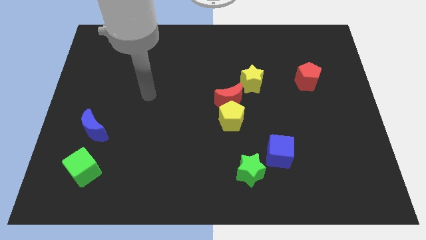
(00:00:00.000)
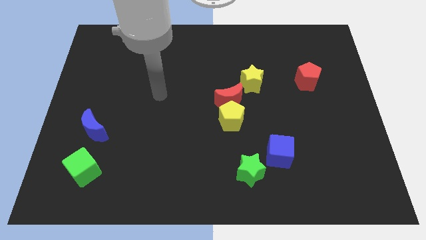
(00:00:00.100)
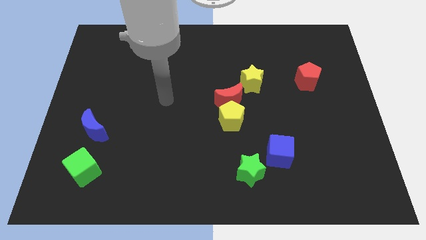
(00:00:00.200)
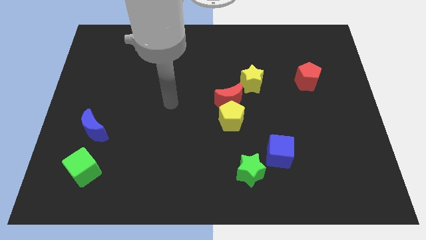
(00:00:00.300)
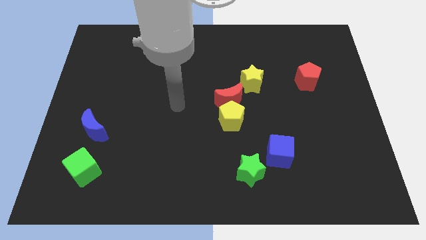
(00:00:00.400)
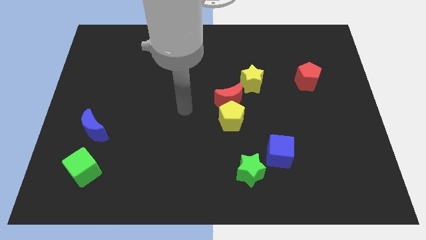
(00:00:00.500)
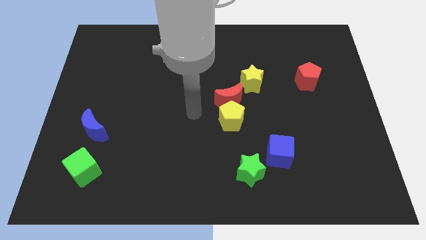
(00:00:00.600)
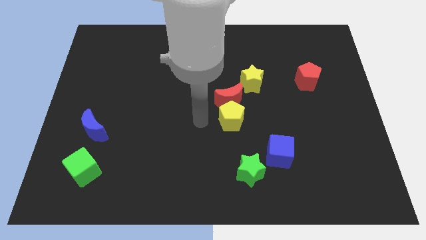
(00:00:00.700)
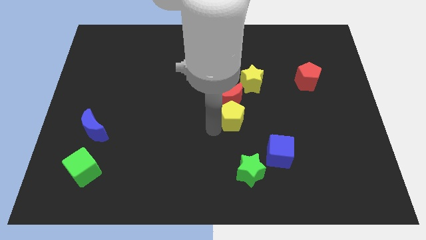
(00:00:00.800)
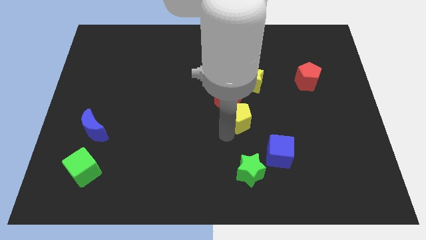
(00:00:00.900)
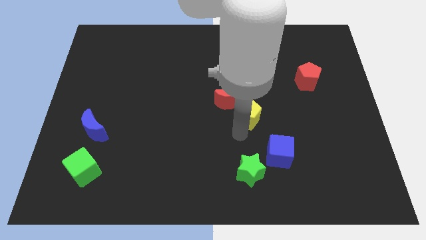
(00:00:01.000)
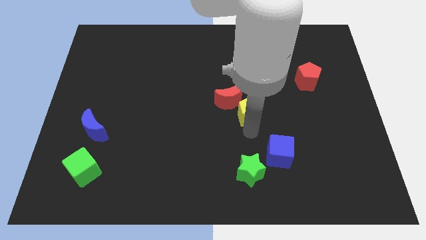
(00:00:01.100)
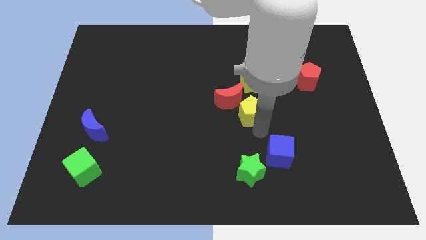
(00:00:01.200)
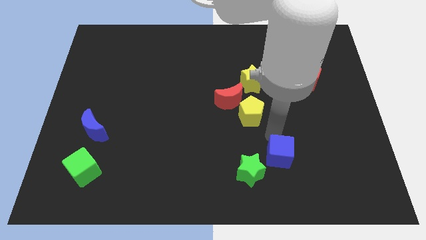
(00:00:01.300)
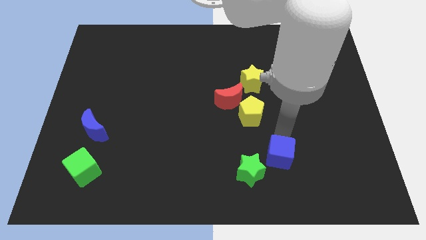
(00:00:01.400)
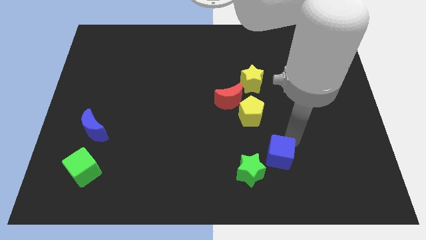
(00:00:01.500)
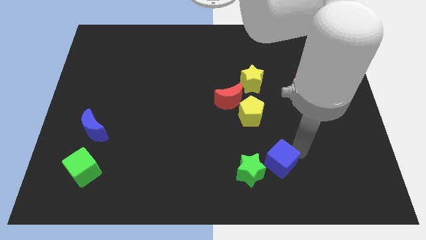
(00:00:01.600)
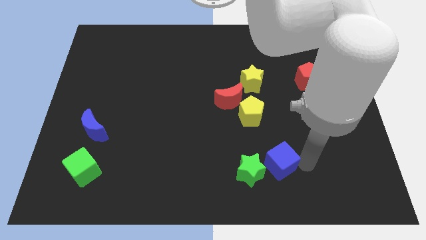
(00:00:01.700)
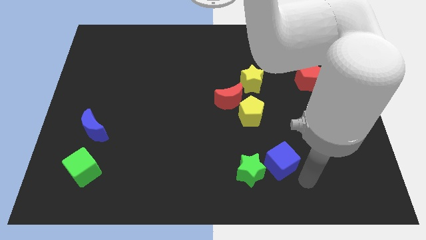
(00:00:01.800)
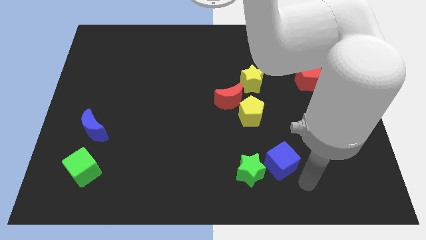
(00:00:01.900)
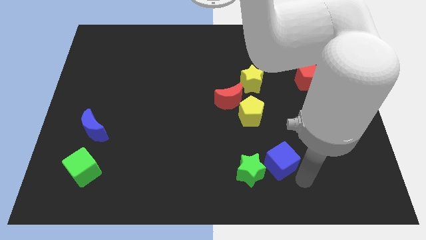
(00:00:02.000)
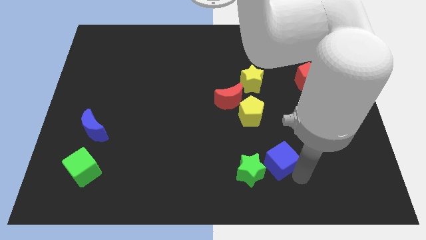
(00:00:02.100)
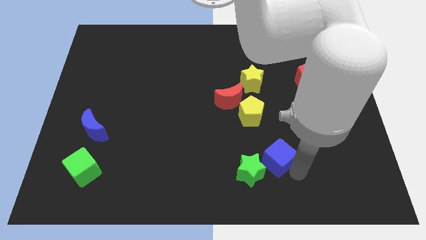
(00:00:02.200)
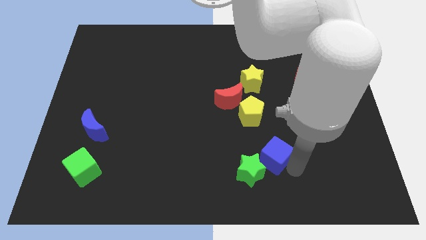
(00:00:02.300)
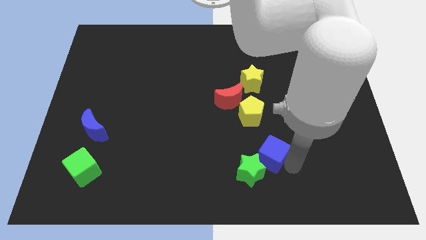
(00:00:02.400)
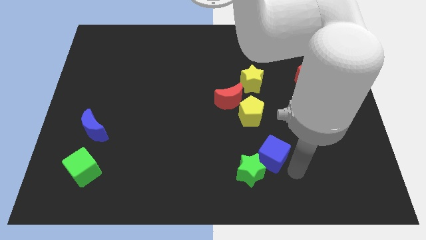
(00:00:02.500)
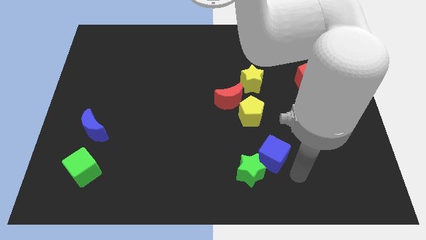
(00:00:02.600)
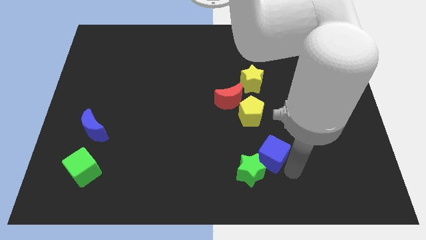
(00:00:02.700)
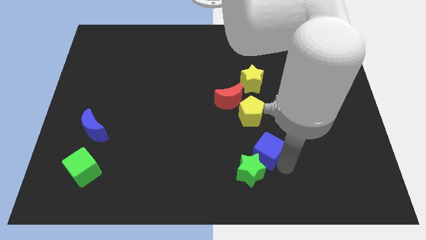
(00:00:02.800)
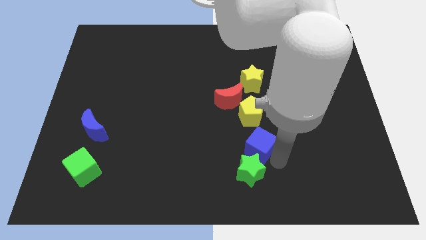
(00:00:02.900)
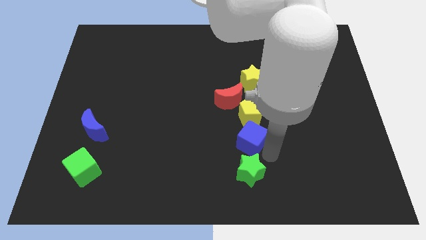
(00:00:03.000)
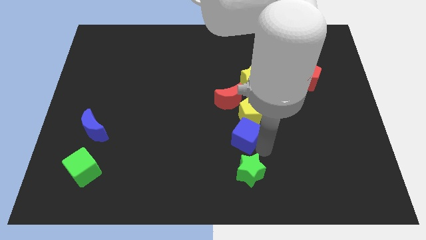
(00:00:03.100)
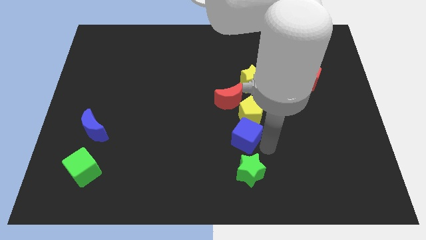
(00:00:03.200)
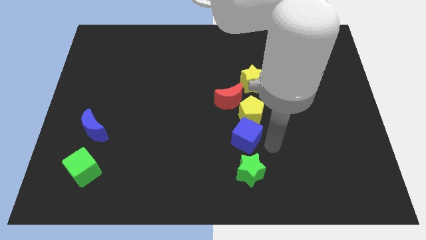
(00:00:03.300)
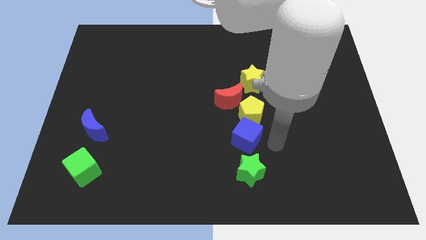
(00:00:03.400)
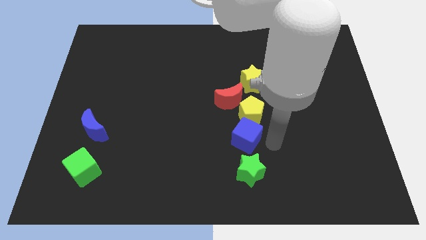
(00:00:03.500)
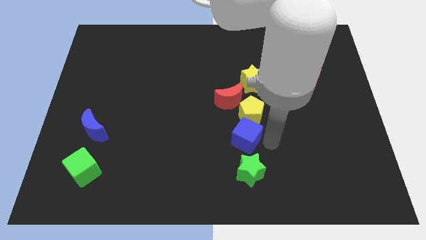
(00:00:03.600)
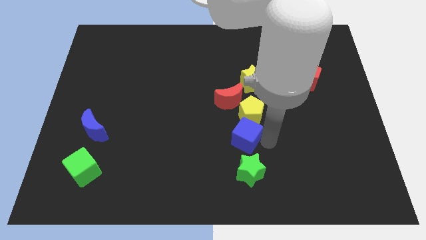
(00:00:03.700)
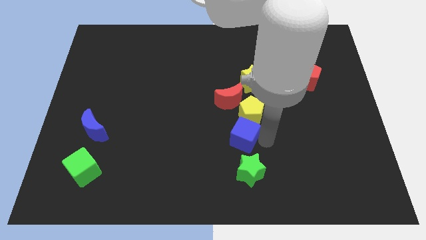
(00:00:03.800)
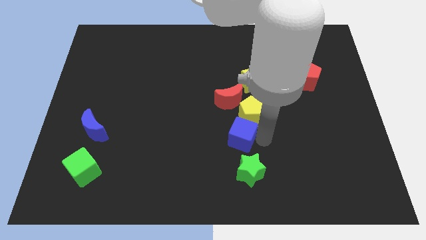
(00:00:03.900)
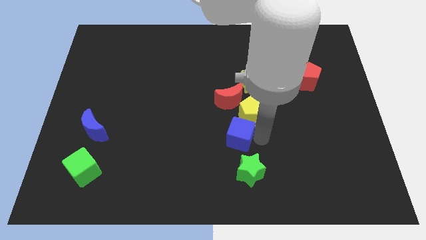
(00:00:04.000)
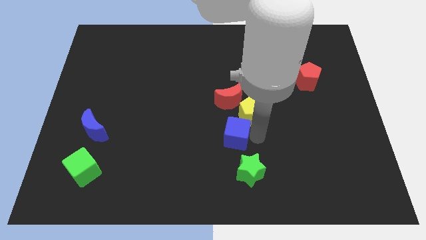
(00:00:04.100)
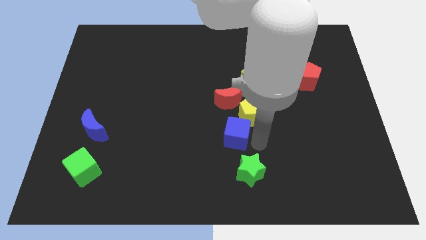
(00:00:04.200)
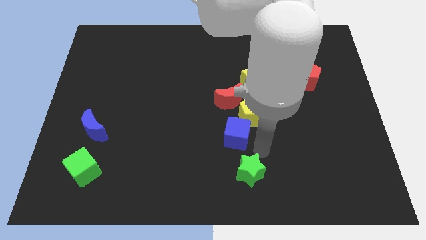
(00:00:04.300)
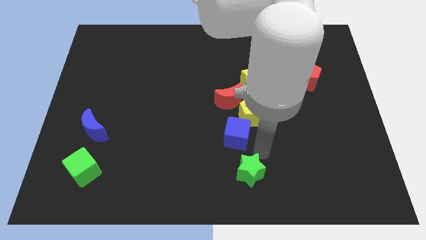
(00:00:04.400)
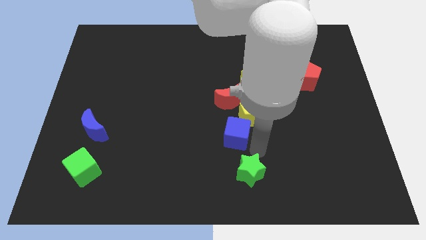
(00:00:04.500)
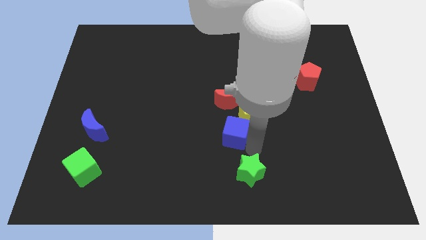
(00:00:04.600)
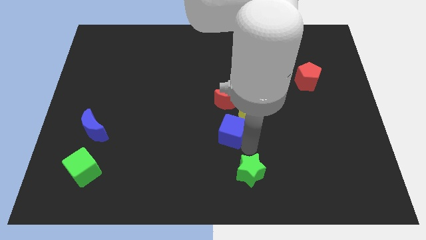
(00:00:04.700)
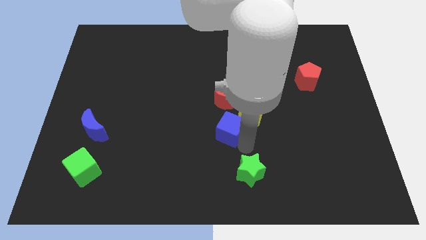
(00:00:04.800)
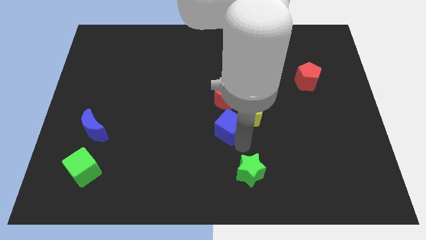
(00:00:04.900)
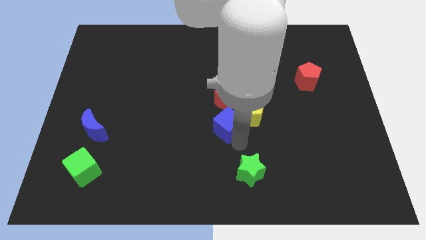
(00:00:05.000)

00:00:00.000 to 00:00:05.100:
put the blue cube to the bottom left of the red moon

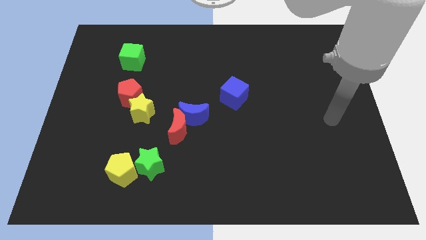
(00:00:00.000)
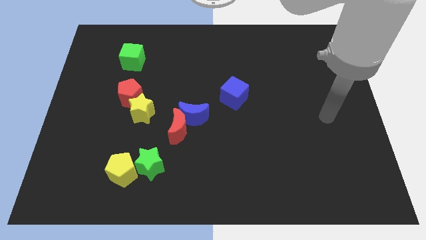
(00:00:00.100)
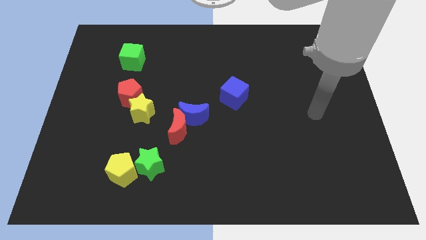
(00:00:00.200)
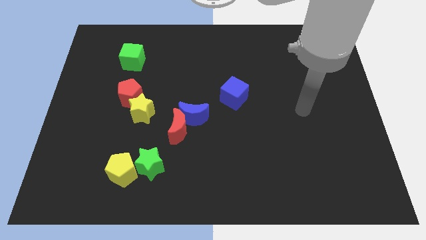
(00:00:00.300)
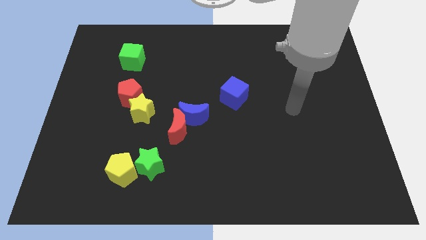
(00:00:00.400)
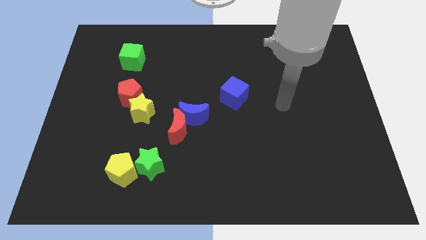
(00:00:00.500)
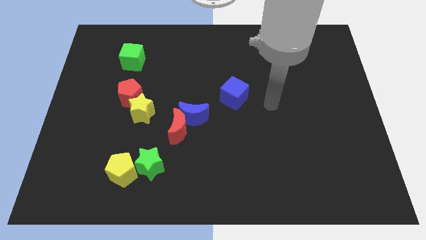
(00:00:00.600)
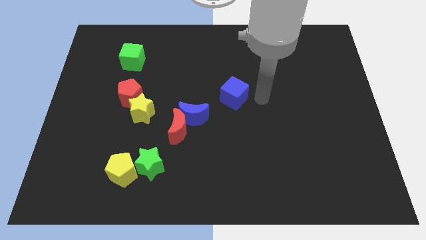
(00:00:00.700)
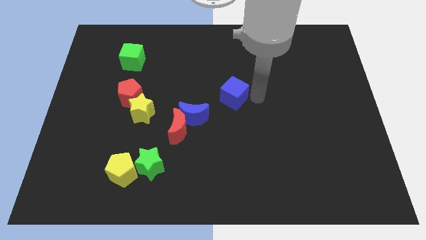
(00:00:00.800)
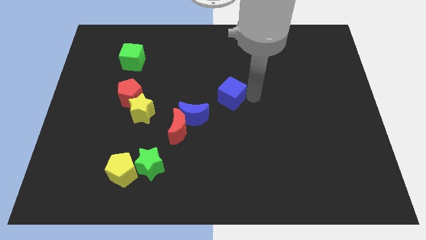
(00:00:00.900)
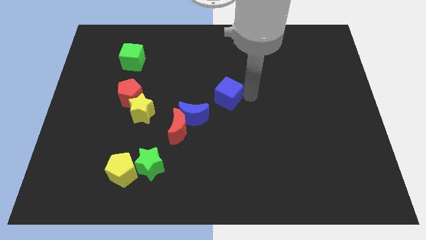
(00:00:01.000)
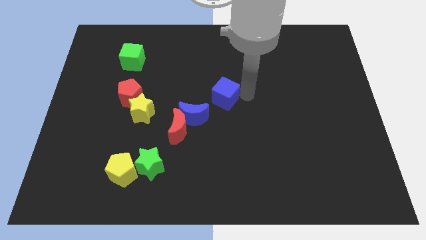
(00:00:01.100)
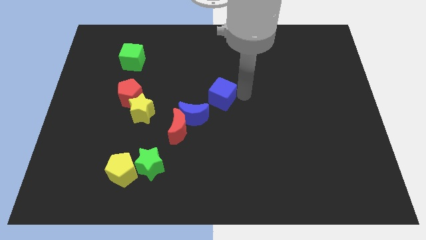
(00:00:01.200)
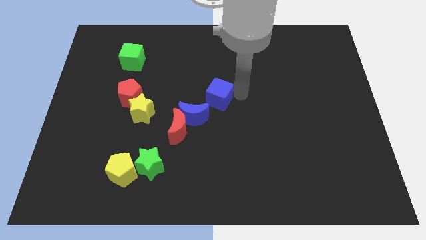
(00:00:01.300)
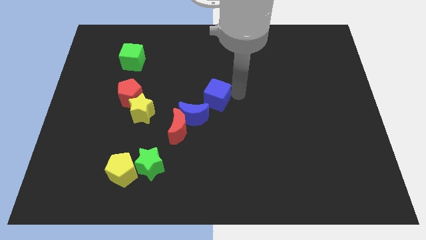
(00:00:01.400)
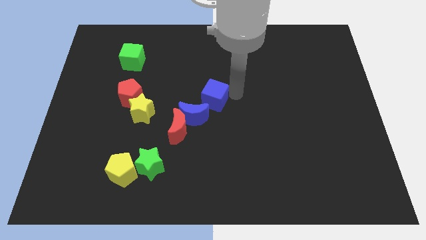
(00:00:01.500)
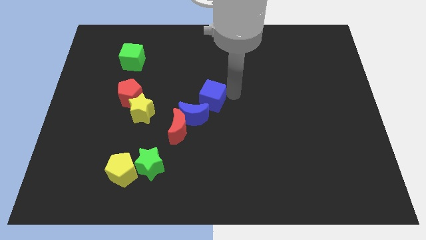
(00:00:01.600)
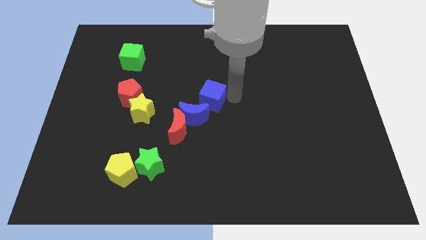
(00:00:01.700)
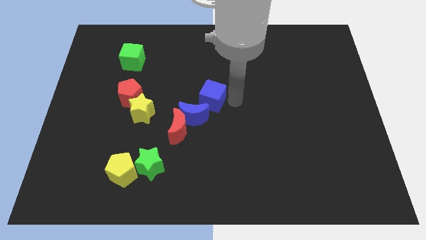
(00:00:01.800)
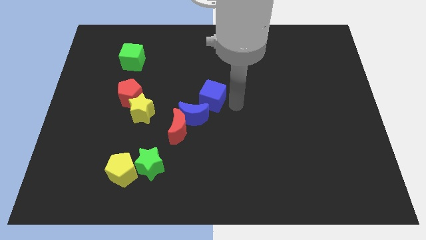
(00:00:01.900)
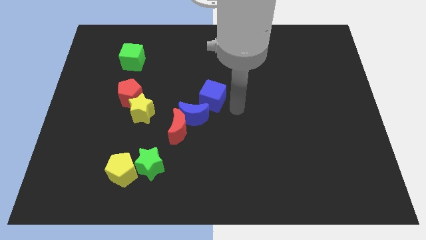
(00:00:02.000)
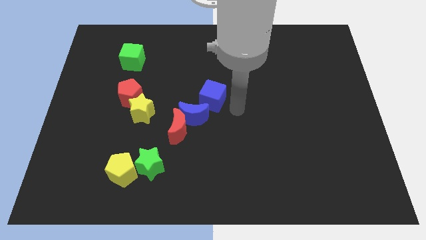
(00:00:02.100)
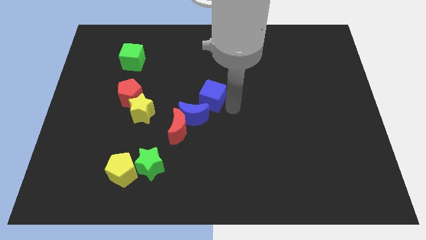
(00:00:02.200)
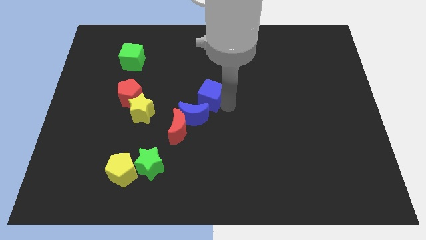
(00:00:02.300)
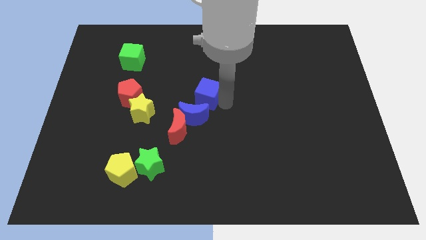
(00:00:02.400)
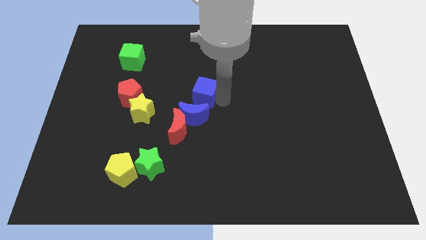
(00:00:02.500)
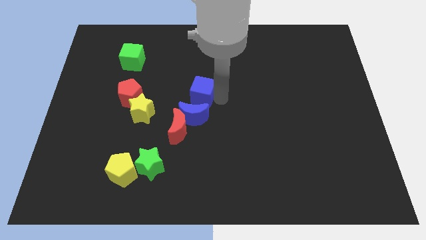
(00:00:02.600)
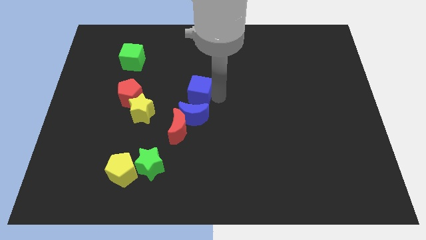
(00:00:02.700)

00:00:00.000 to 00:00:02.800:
move the blue cube to the right of the red pentagon

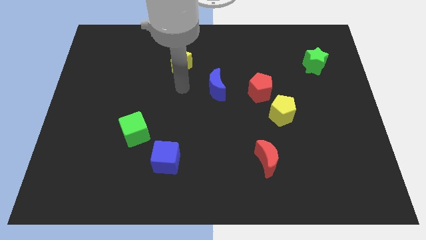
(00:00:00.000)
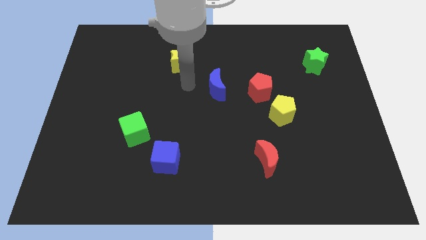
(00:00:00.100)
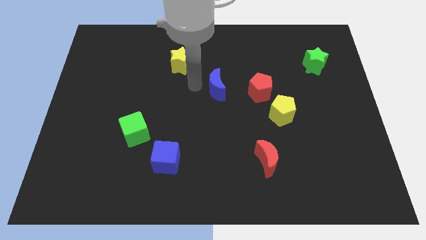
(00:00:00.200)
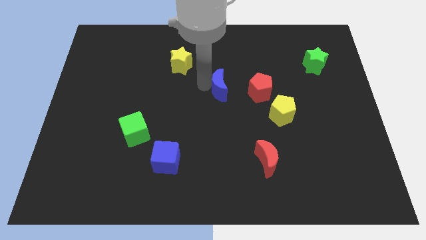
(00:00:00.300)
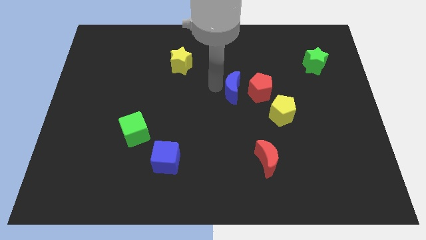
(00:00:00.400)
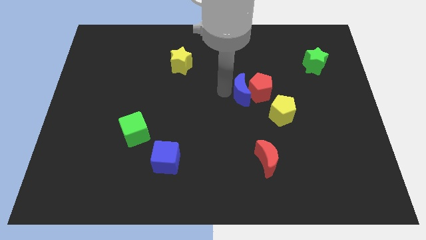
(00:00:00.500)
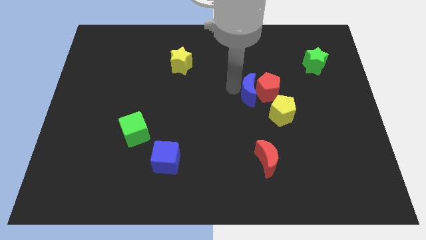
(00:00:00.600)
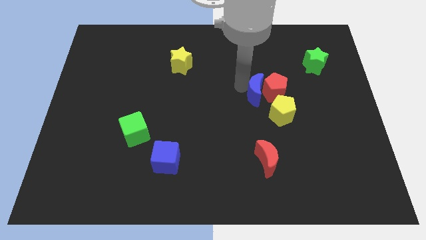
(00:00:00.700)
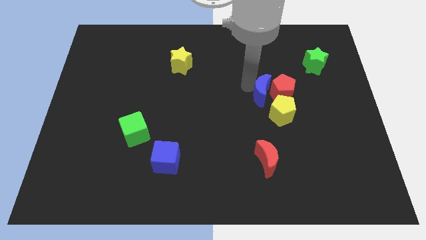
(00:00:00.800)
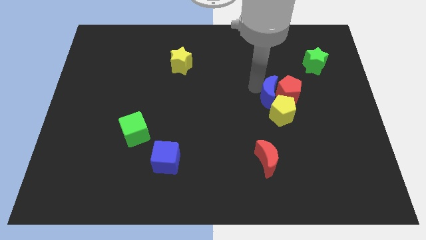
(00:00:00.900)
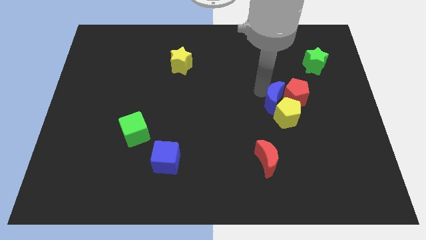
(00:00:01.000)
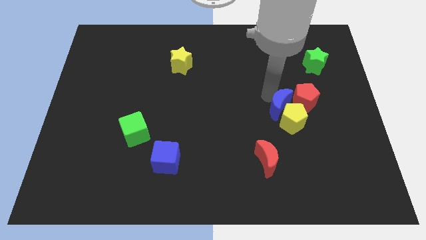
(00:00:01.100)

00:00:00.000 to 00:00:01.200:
slide the red pentagon to the bottom side of the green star
